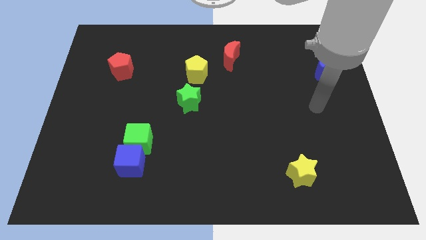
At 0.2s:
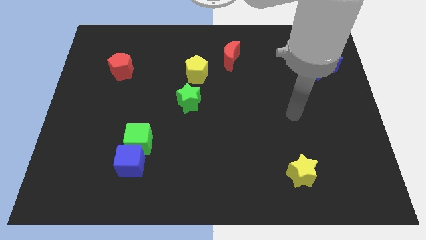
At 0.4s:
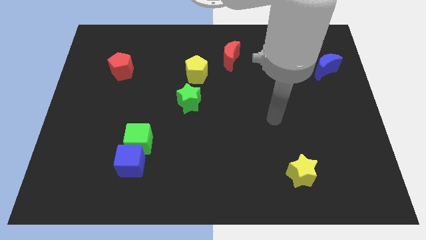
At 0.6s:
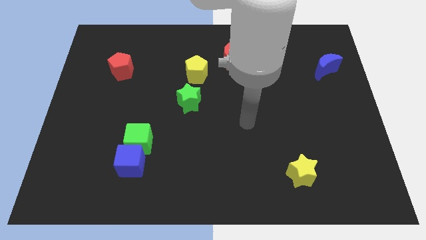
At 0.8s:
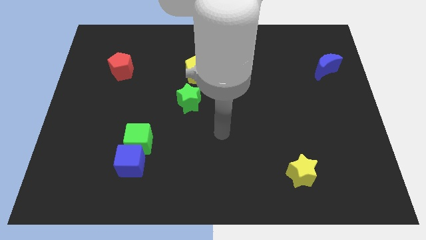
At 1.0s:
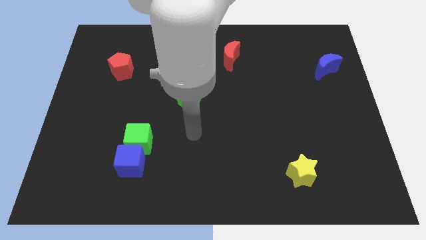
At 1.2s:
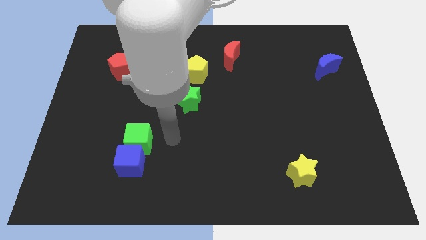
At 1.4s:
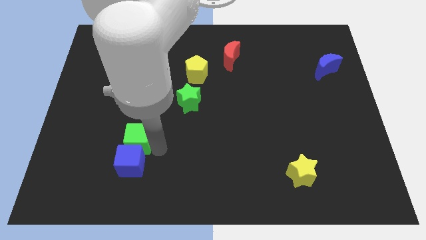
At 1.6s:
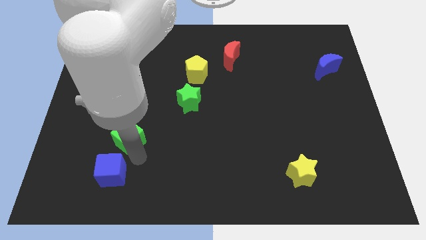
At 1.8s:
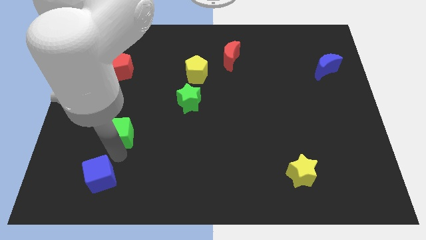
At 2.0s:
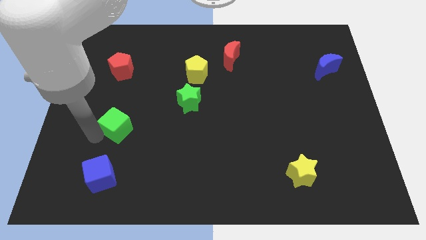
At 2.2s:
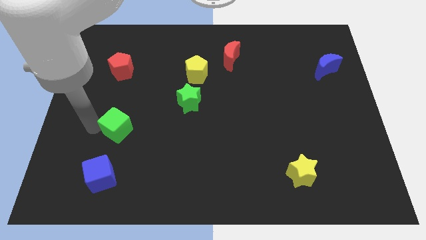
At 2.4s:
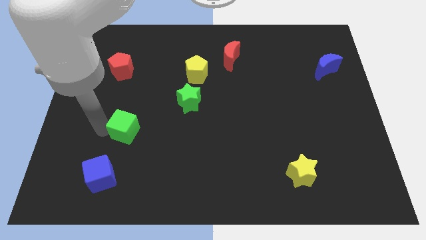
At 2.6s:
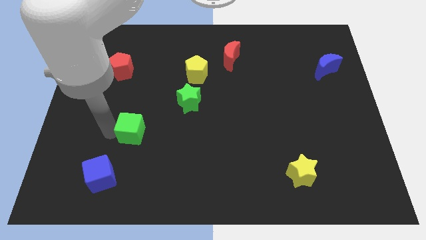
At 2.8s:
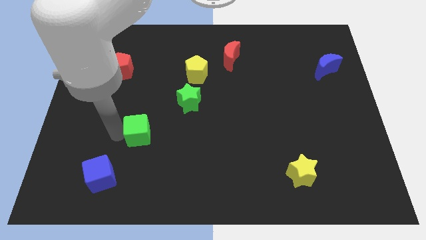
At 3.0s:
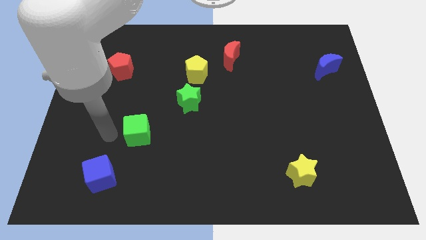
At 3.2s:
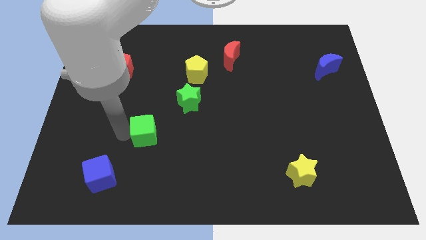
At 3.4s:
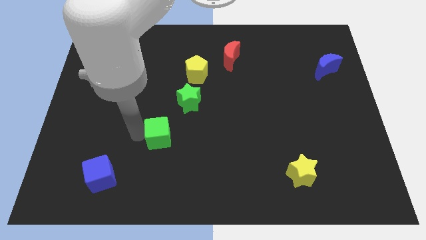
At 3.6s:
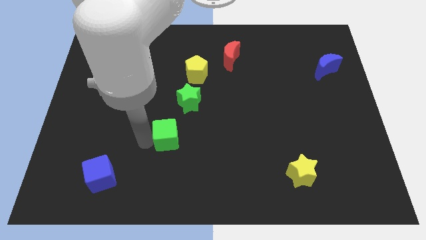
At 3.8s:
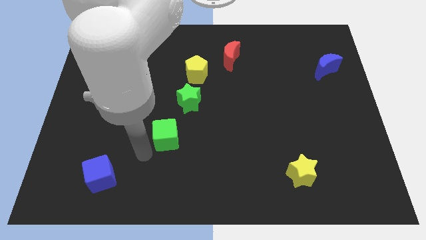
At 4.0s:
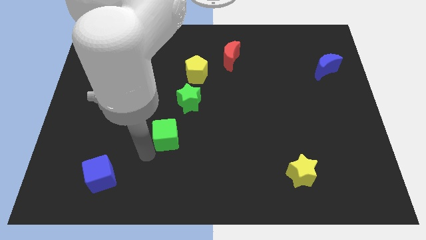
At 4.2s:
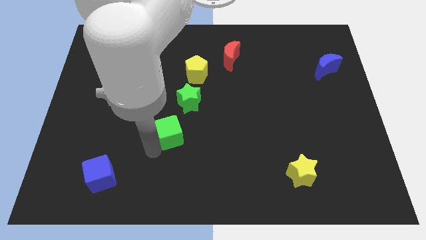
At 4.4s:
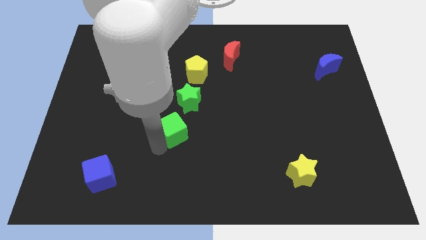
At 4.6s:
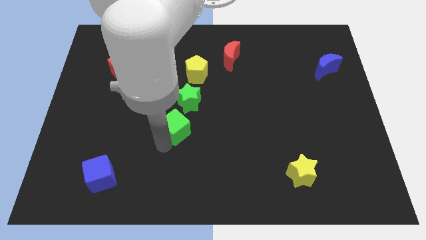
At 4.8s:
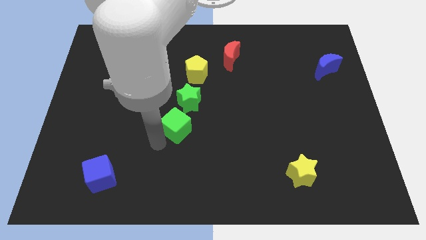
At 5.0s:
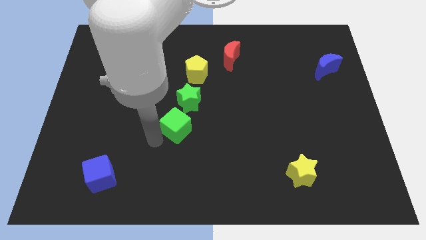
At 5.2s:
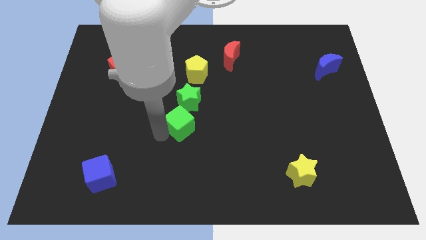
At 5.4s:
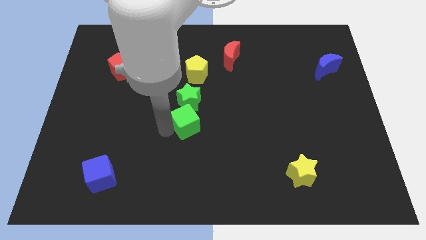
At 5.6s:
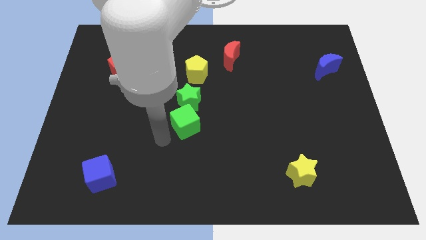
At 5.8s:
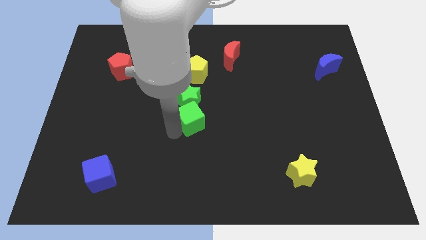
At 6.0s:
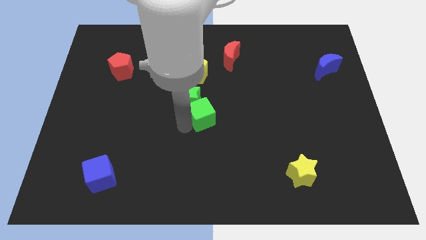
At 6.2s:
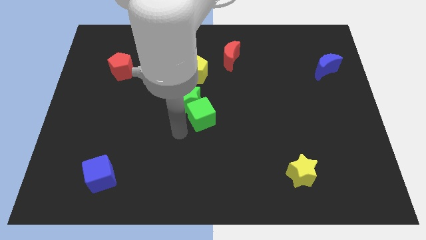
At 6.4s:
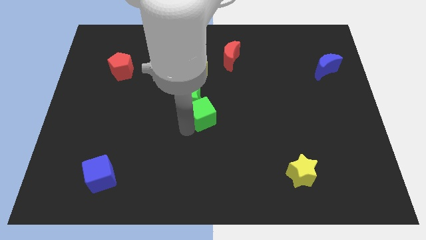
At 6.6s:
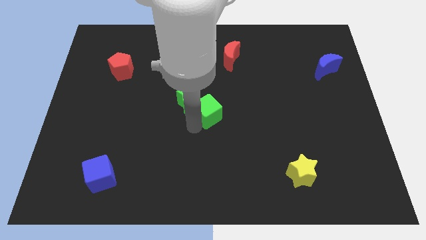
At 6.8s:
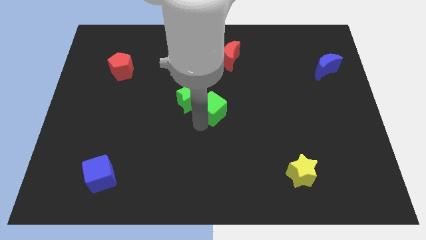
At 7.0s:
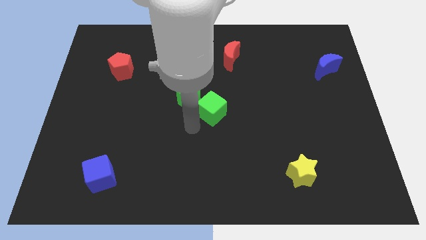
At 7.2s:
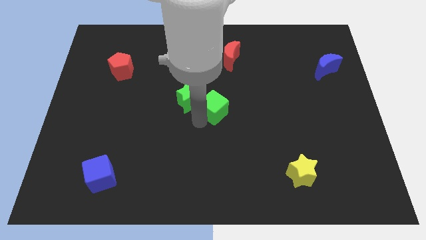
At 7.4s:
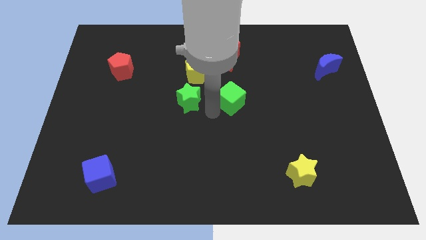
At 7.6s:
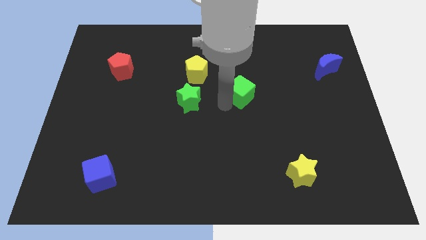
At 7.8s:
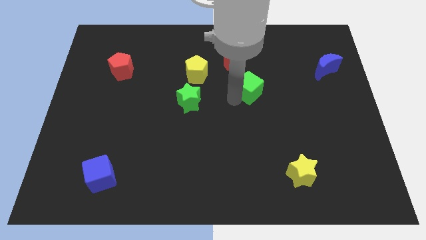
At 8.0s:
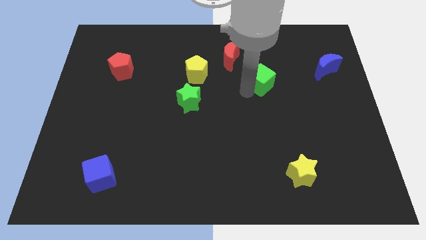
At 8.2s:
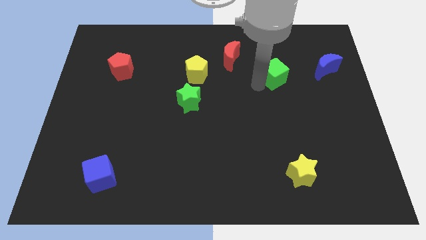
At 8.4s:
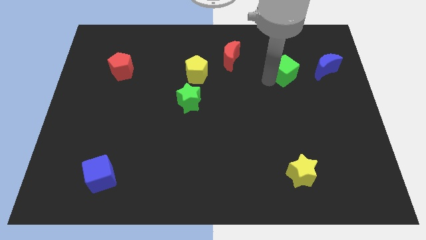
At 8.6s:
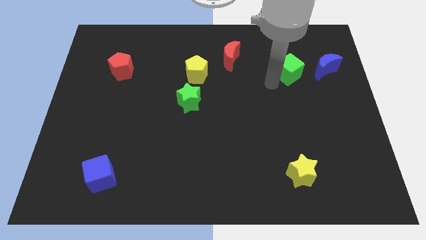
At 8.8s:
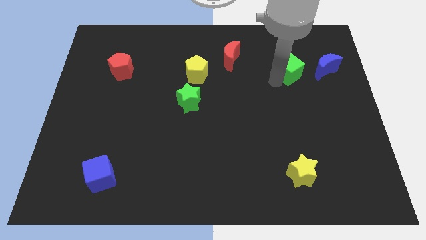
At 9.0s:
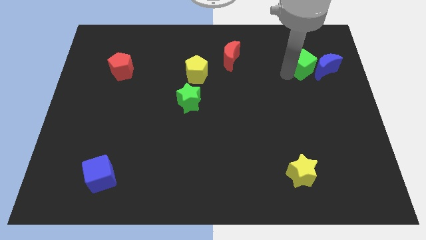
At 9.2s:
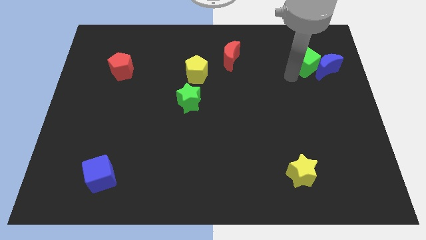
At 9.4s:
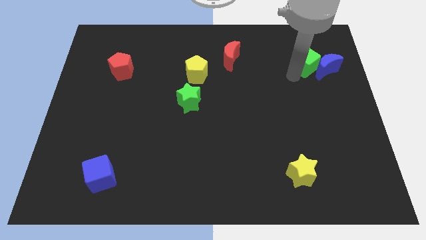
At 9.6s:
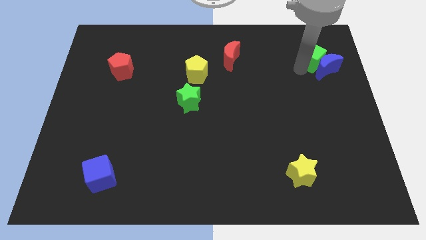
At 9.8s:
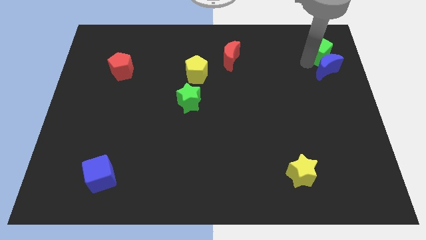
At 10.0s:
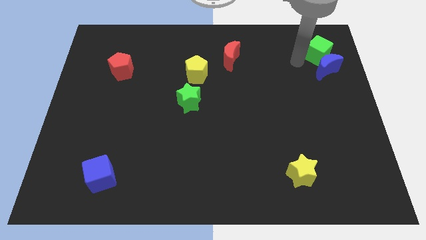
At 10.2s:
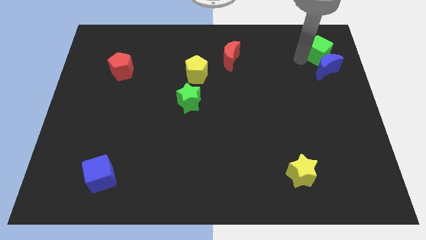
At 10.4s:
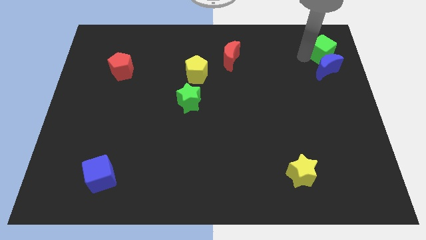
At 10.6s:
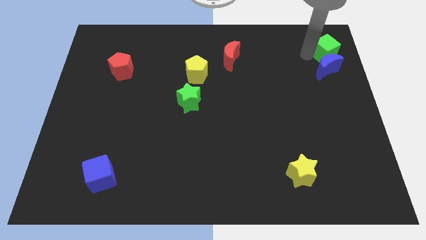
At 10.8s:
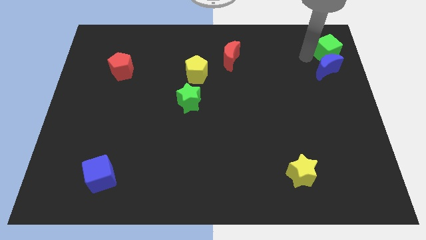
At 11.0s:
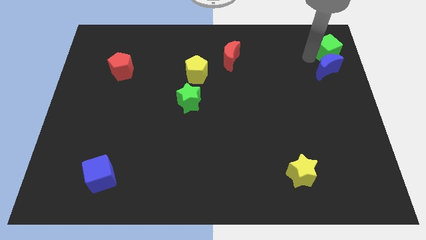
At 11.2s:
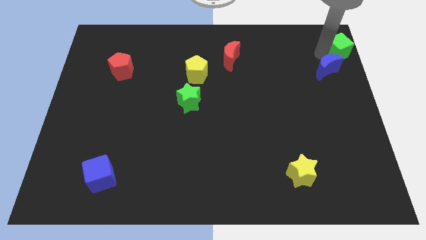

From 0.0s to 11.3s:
slide the green cube to the top right
